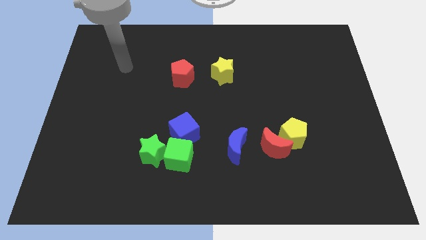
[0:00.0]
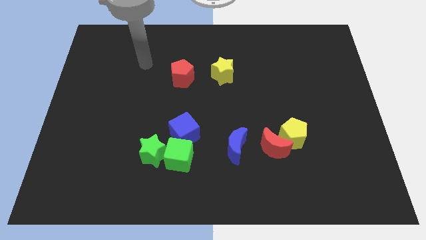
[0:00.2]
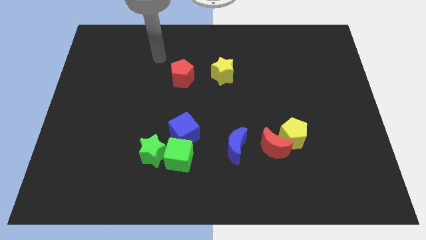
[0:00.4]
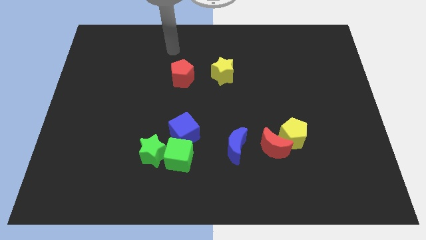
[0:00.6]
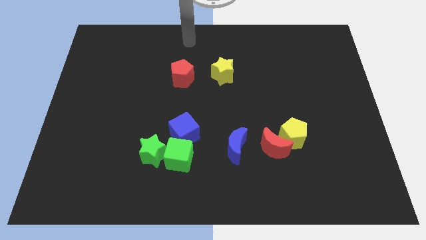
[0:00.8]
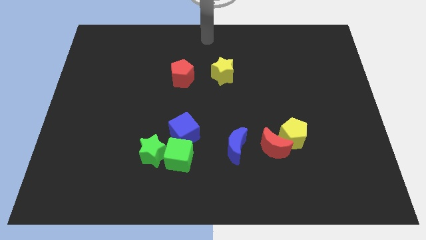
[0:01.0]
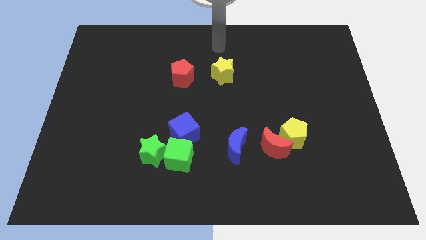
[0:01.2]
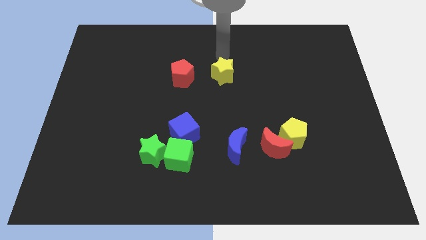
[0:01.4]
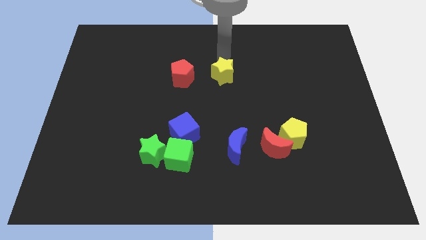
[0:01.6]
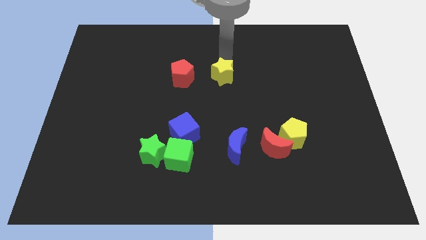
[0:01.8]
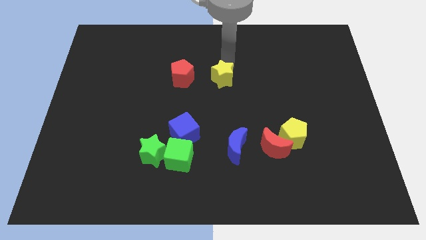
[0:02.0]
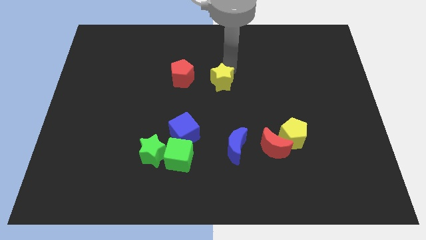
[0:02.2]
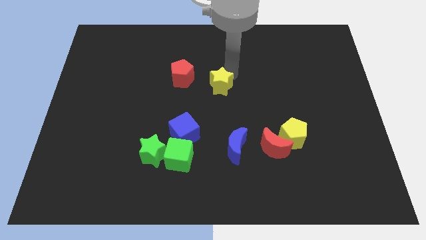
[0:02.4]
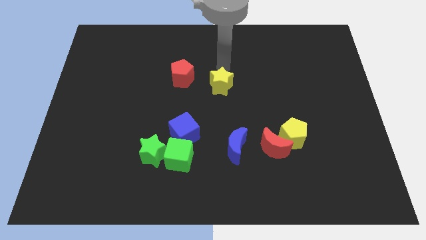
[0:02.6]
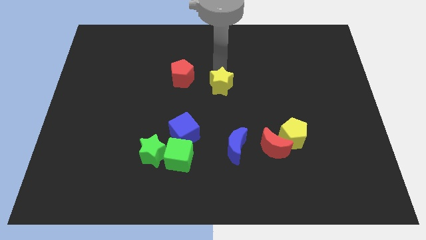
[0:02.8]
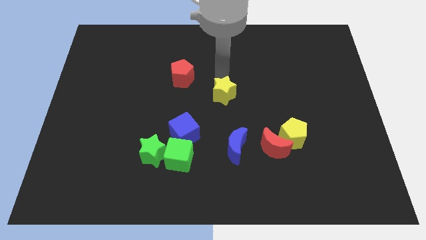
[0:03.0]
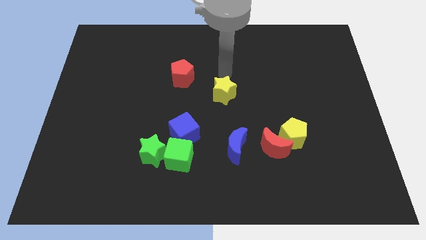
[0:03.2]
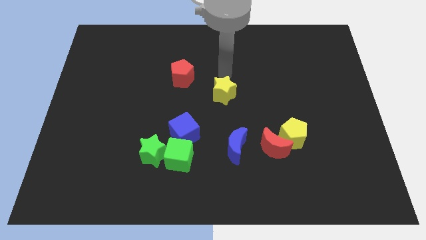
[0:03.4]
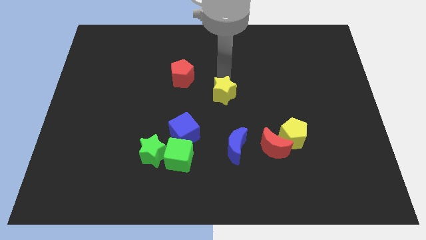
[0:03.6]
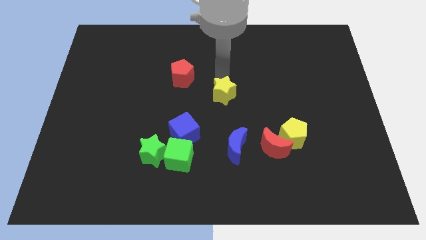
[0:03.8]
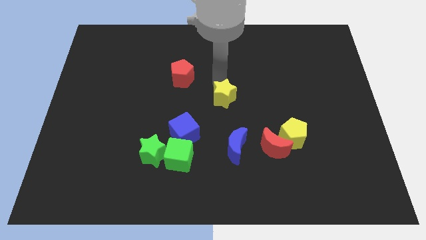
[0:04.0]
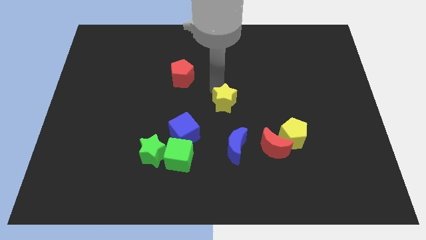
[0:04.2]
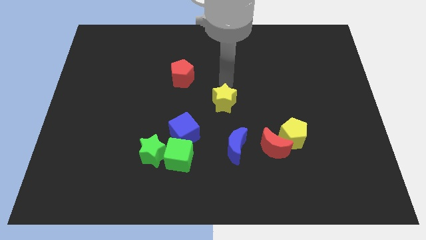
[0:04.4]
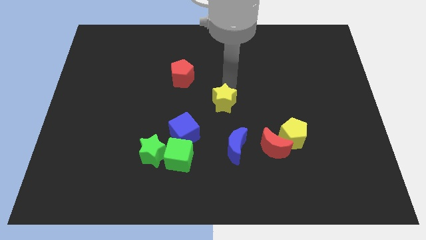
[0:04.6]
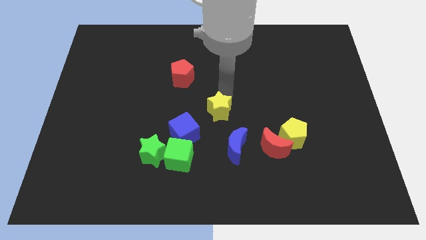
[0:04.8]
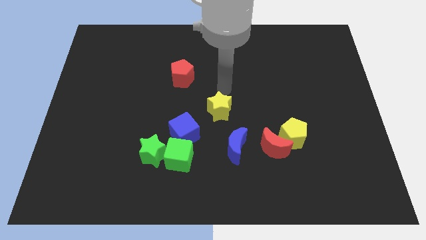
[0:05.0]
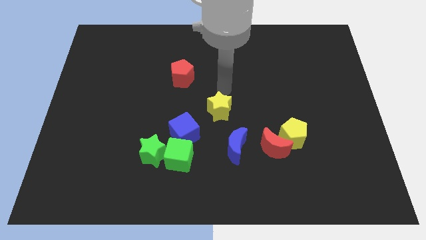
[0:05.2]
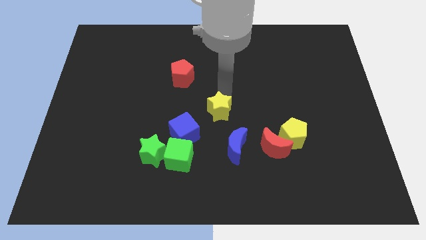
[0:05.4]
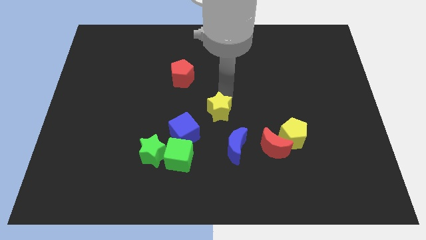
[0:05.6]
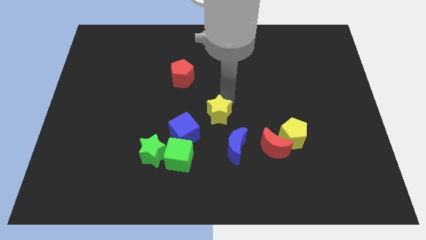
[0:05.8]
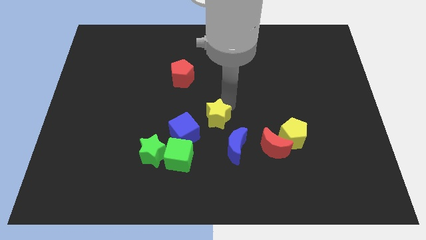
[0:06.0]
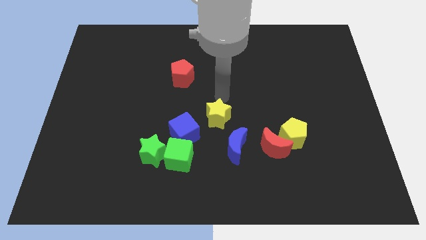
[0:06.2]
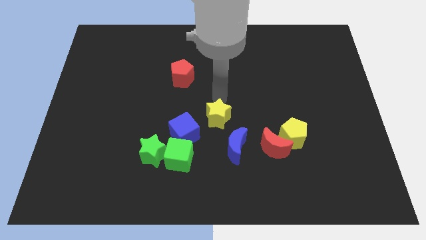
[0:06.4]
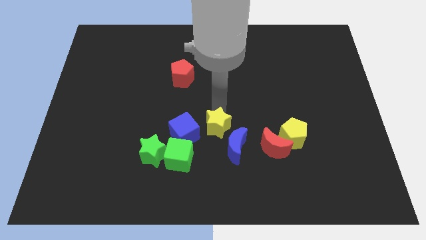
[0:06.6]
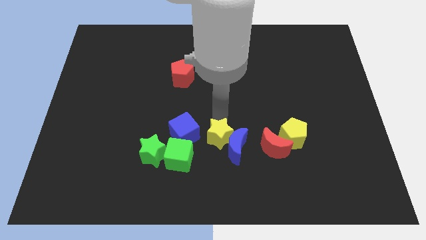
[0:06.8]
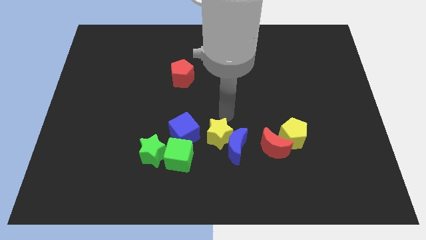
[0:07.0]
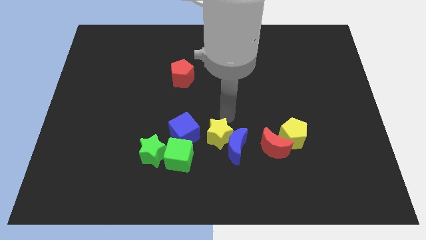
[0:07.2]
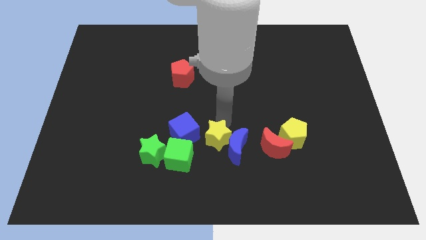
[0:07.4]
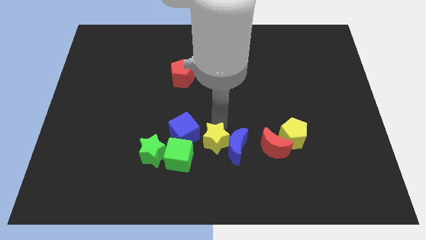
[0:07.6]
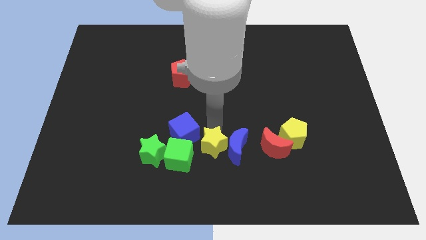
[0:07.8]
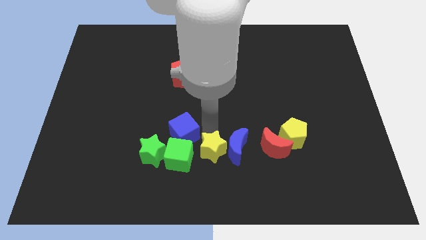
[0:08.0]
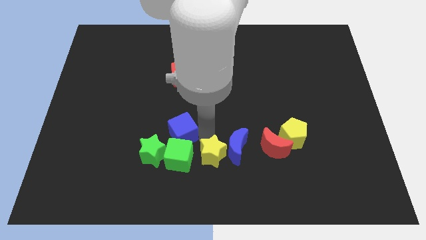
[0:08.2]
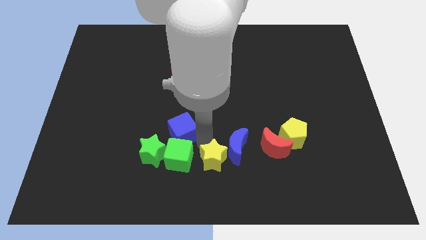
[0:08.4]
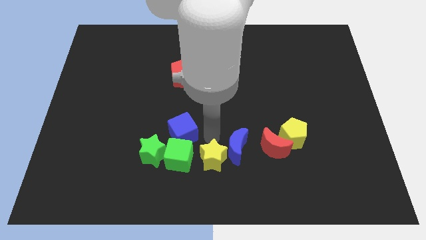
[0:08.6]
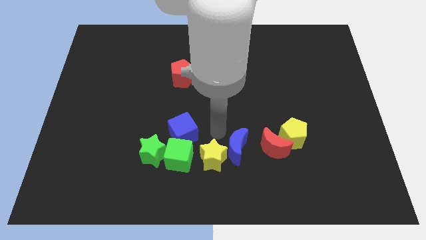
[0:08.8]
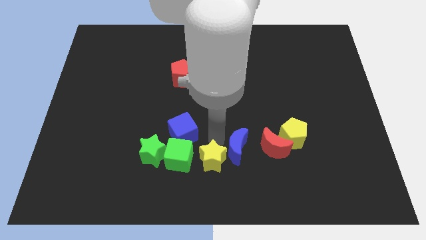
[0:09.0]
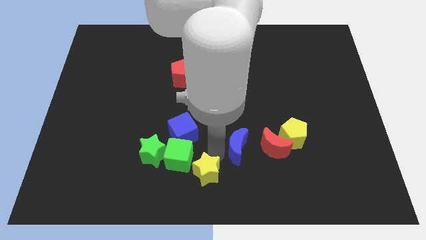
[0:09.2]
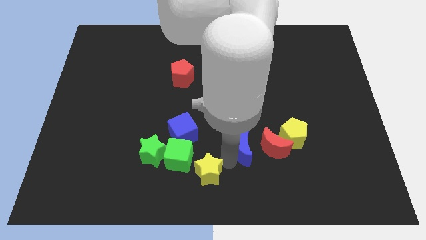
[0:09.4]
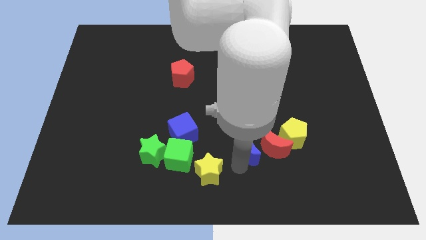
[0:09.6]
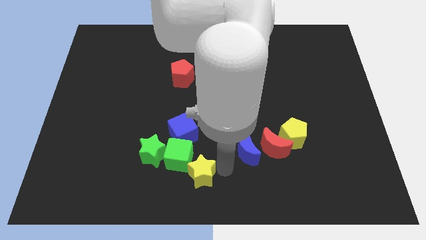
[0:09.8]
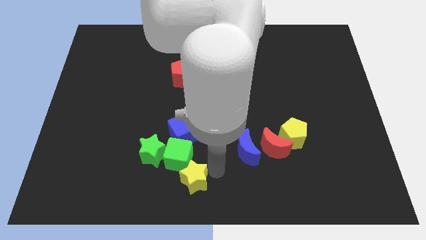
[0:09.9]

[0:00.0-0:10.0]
move the yellow star to the bottom right of the green star

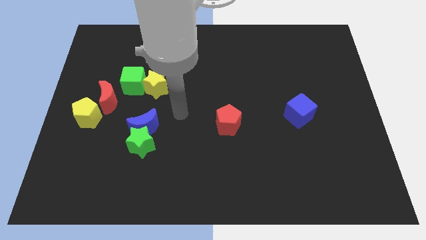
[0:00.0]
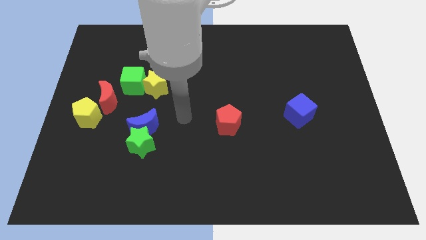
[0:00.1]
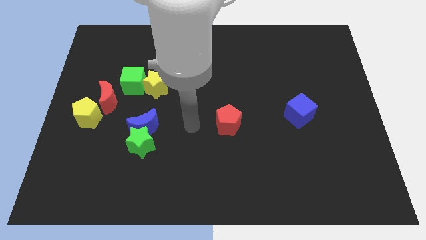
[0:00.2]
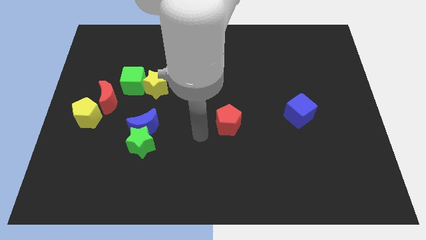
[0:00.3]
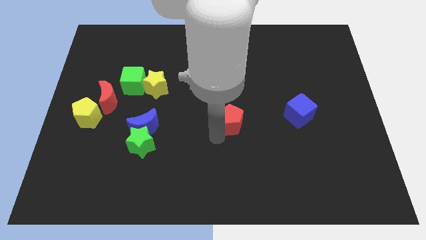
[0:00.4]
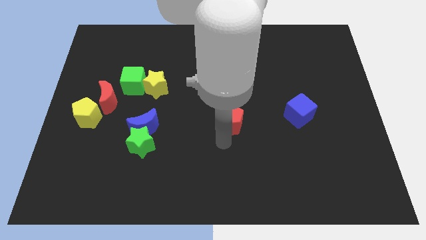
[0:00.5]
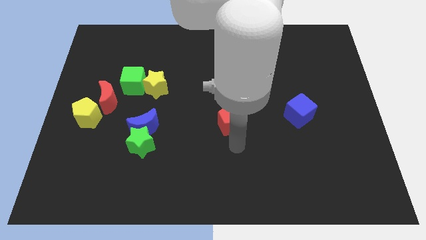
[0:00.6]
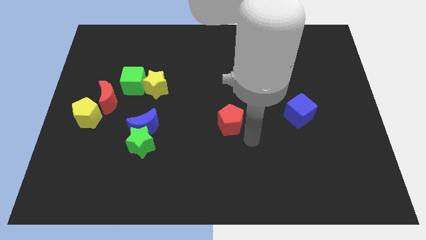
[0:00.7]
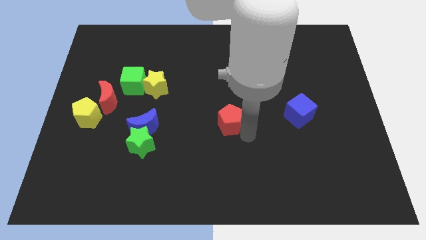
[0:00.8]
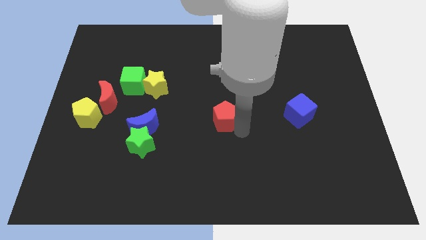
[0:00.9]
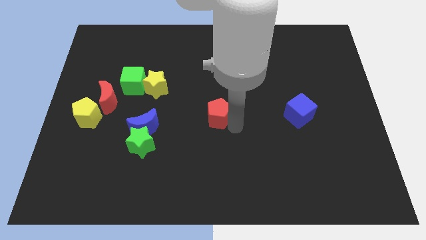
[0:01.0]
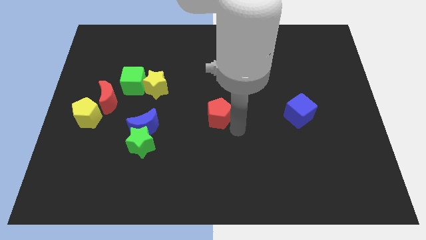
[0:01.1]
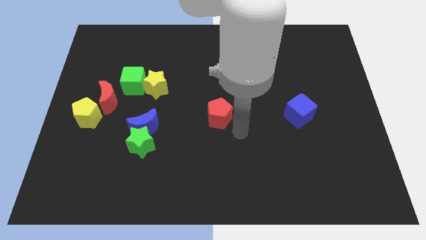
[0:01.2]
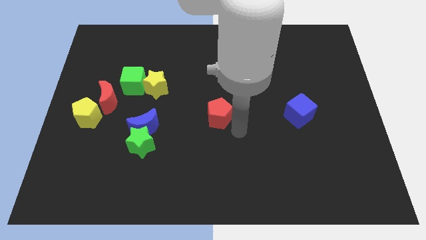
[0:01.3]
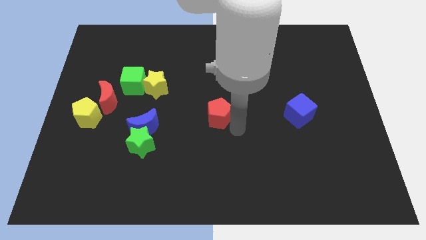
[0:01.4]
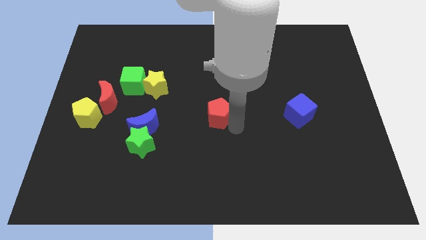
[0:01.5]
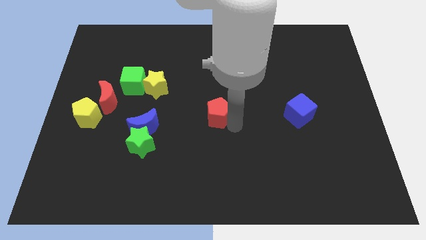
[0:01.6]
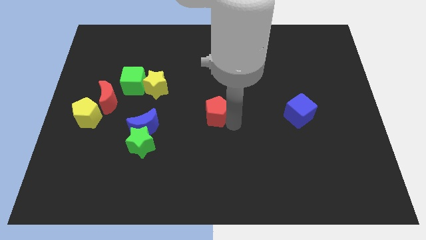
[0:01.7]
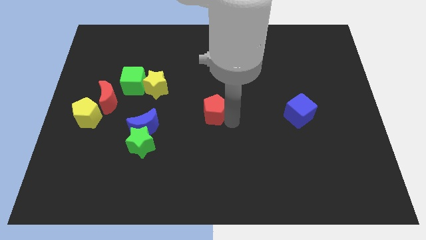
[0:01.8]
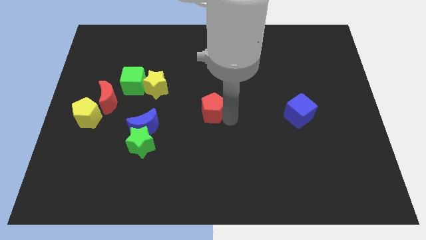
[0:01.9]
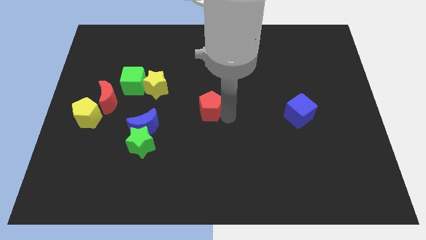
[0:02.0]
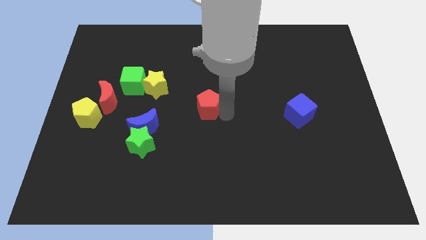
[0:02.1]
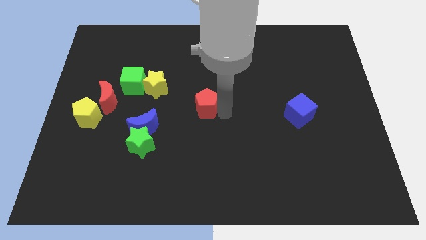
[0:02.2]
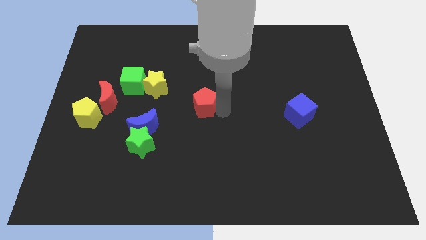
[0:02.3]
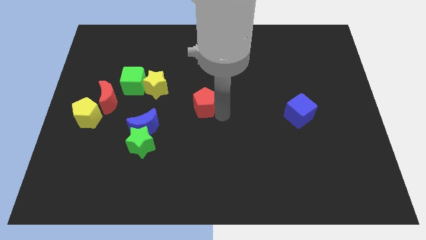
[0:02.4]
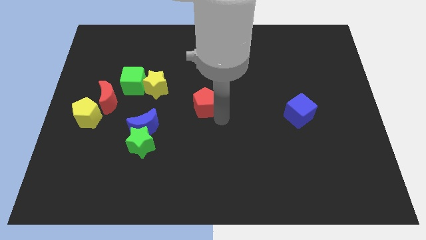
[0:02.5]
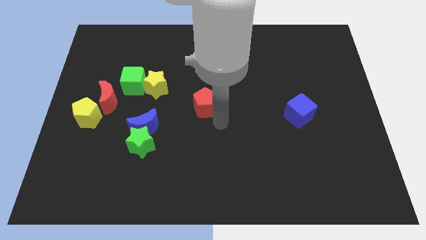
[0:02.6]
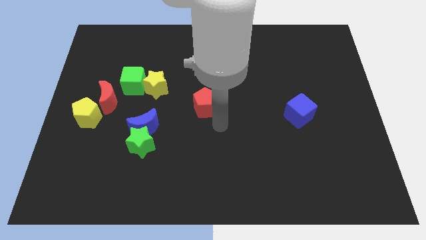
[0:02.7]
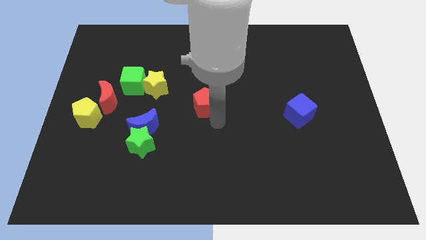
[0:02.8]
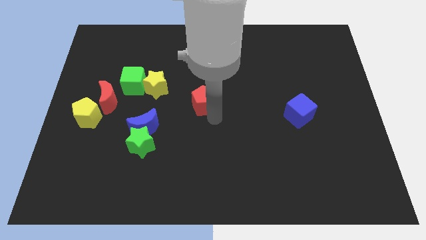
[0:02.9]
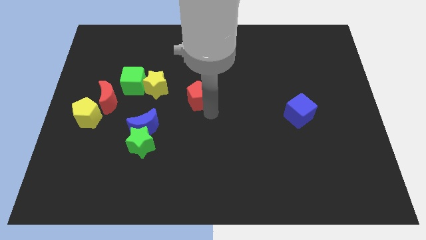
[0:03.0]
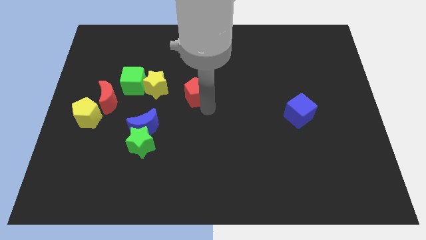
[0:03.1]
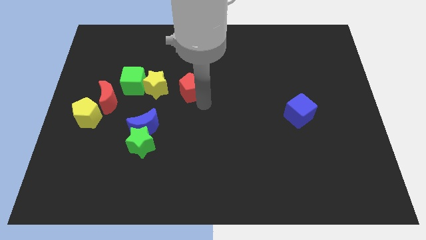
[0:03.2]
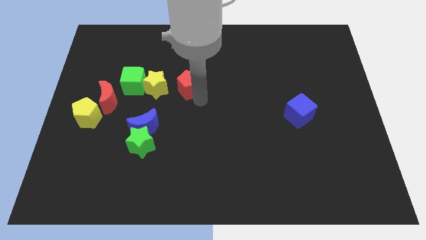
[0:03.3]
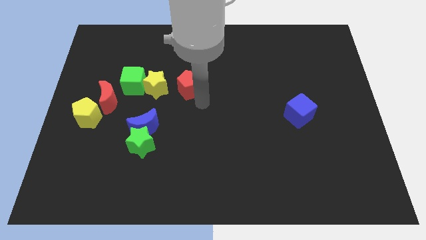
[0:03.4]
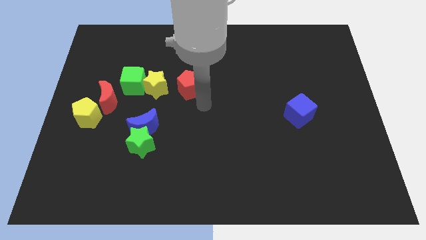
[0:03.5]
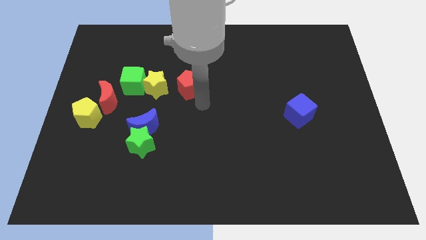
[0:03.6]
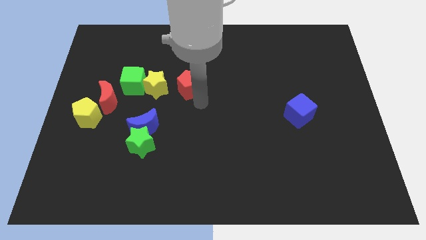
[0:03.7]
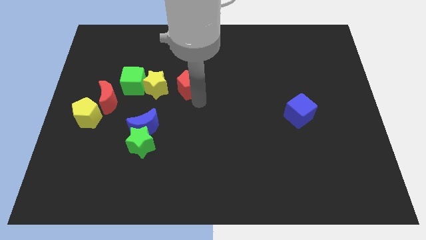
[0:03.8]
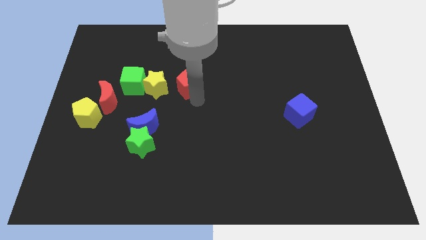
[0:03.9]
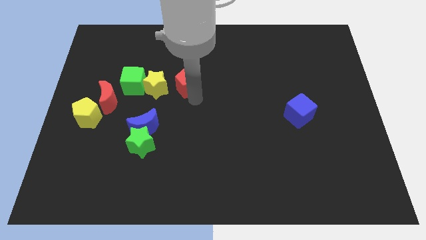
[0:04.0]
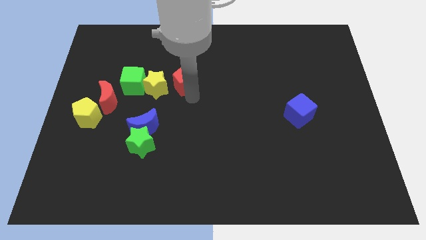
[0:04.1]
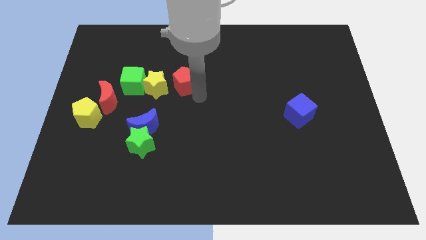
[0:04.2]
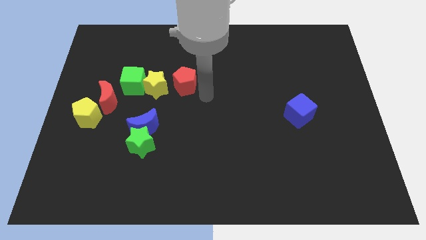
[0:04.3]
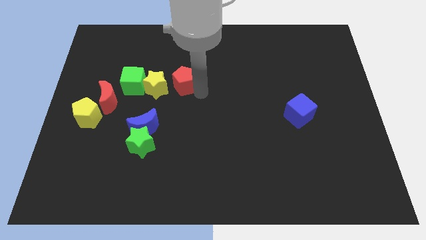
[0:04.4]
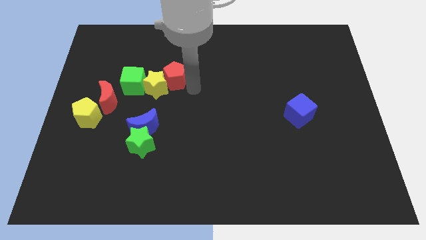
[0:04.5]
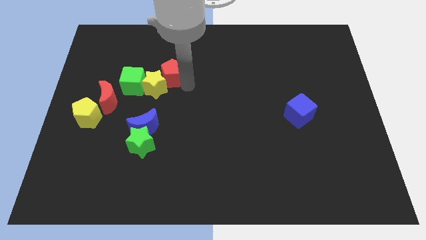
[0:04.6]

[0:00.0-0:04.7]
slide the red pentagon to the top right side of the green cube
